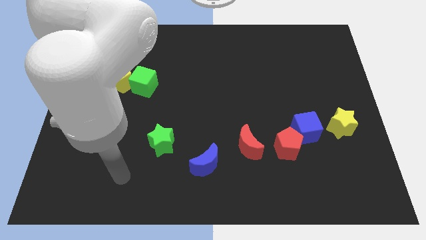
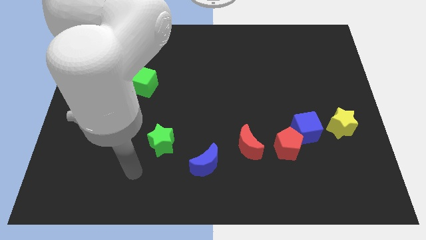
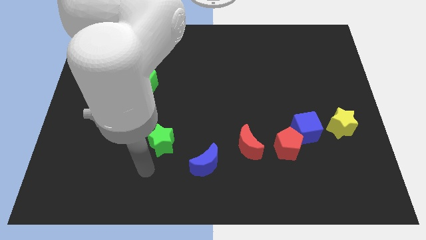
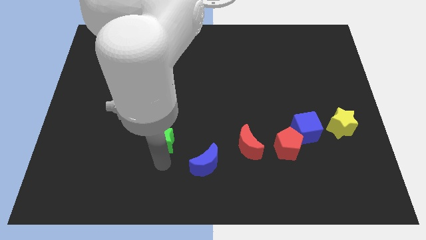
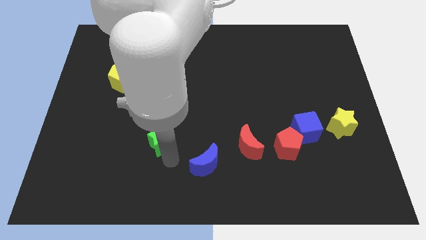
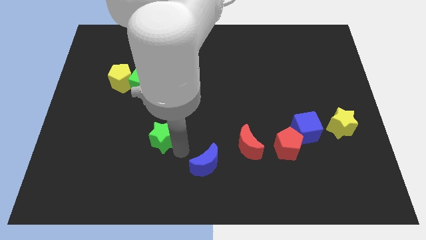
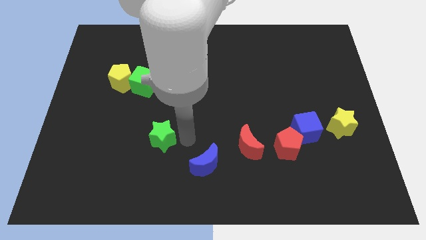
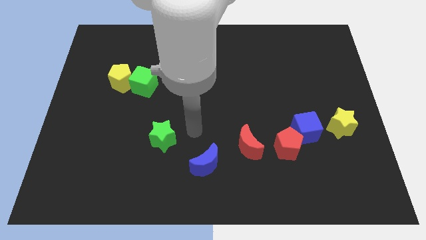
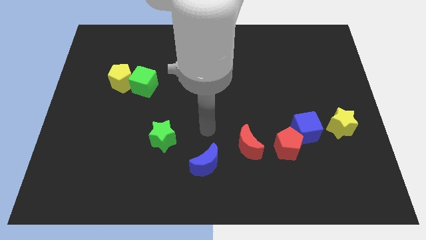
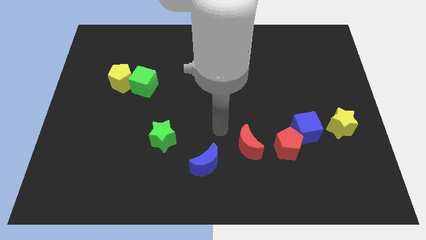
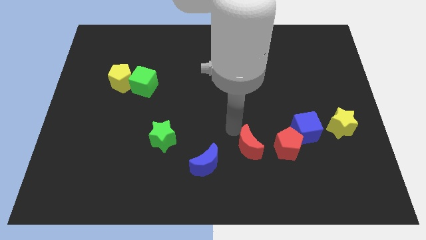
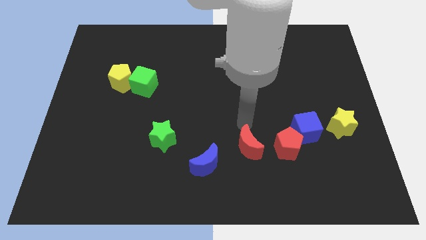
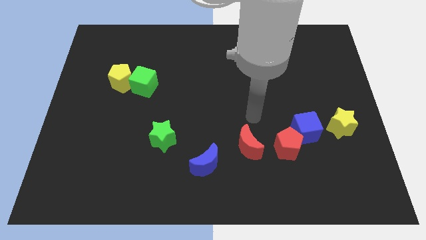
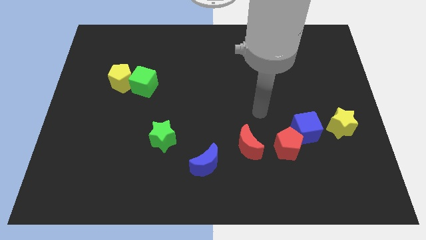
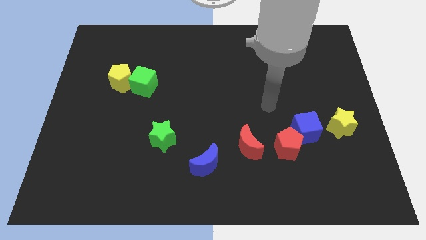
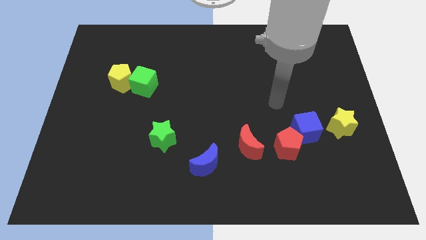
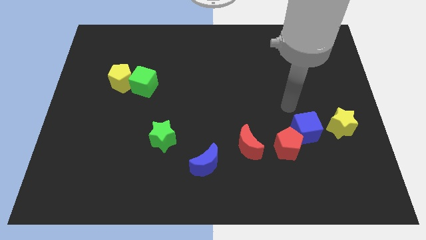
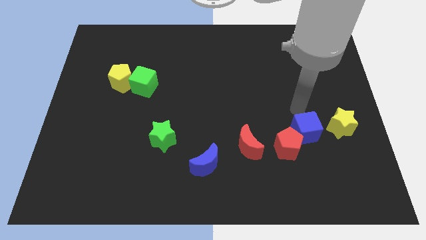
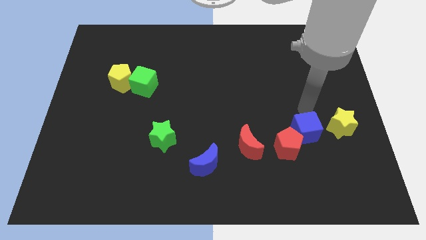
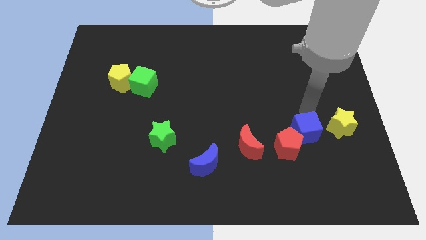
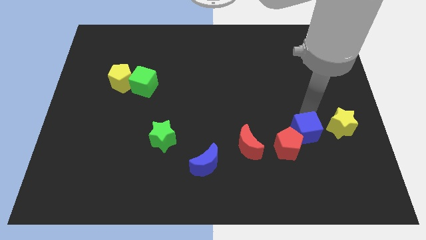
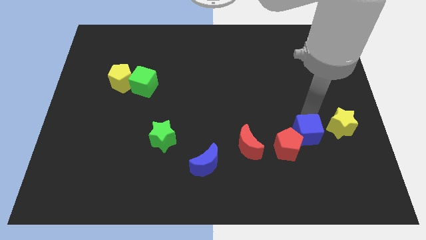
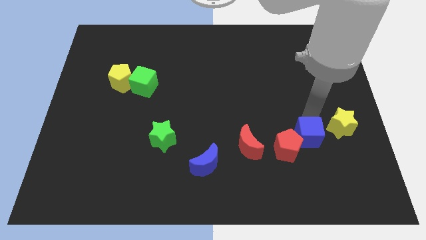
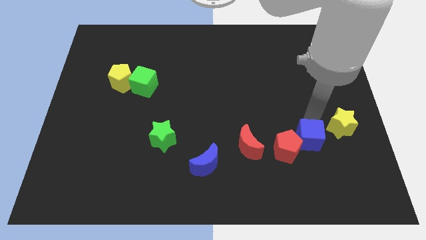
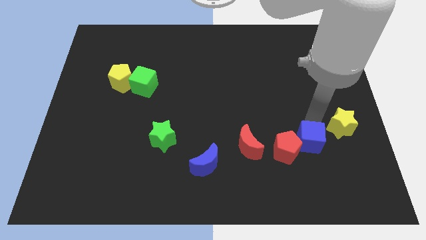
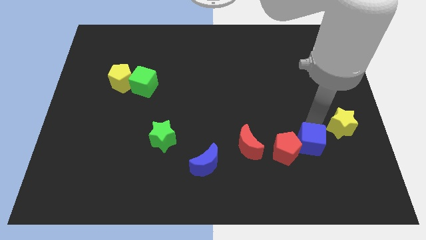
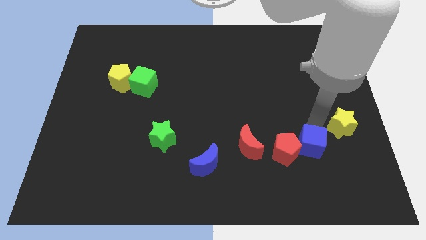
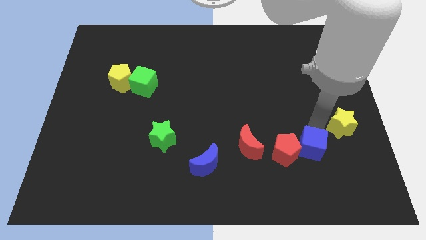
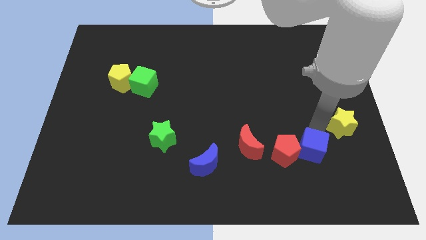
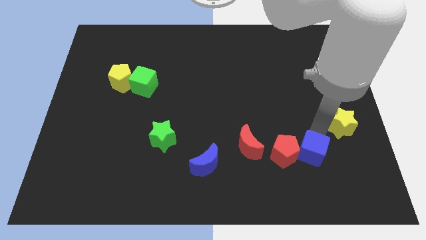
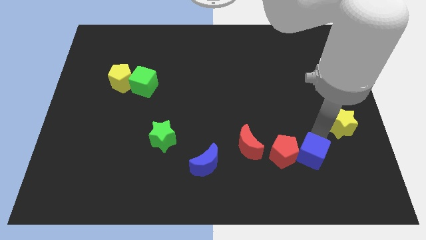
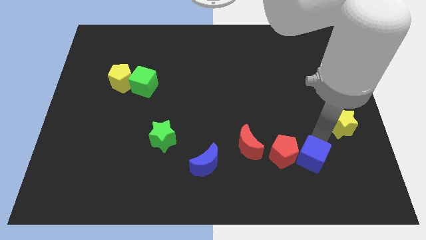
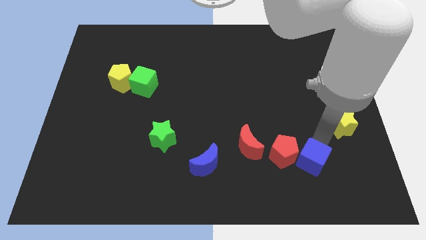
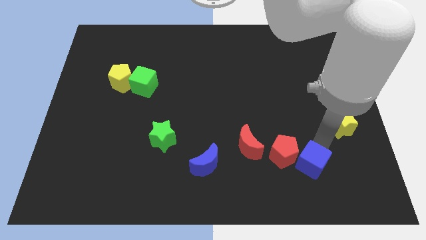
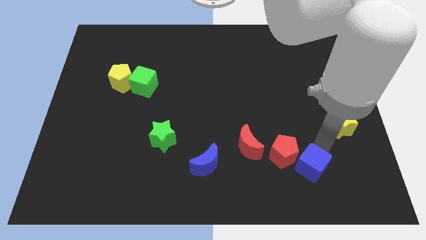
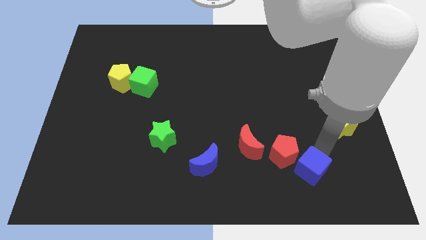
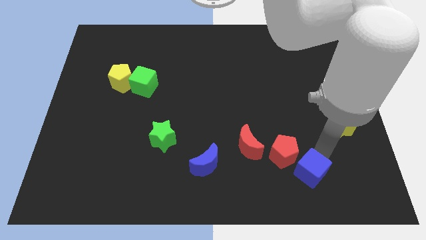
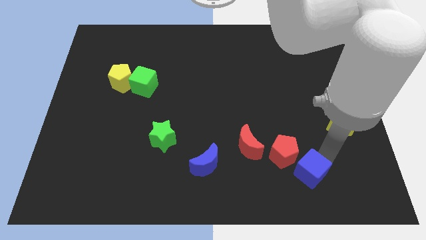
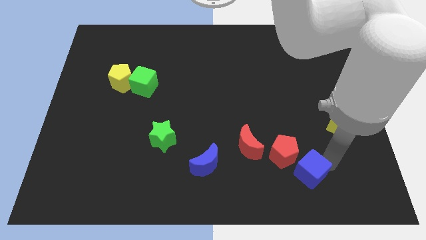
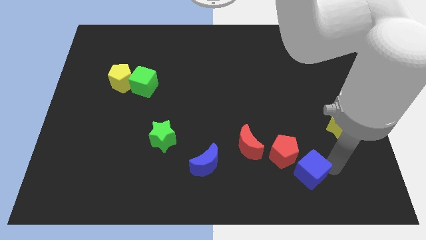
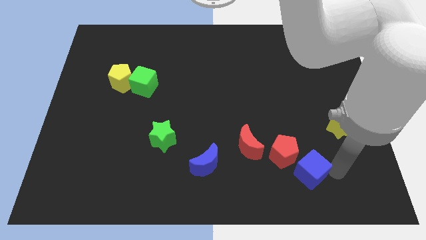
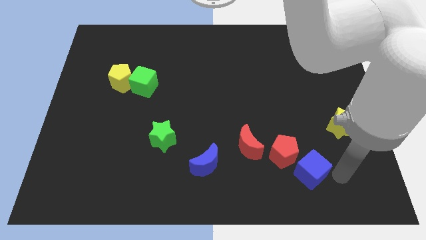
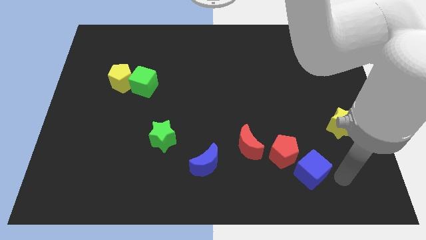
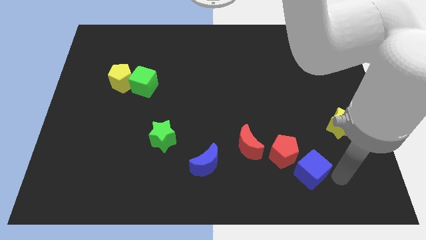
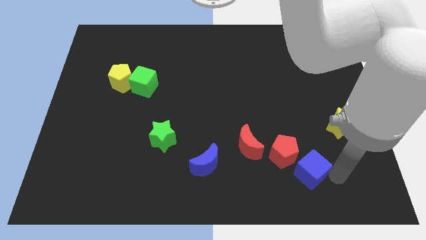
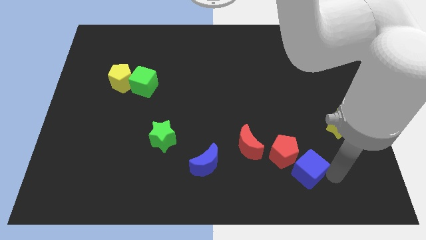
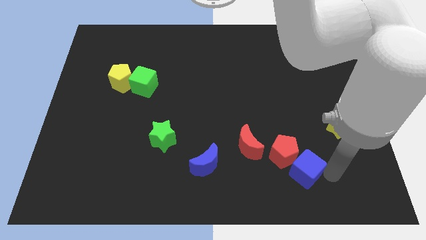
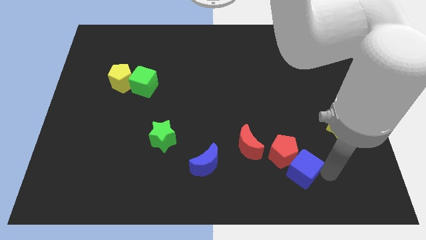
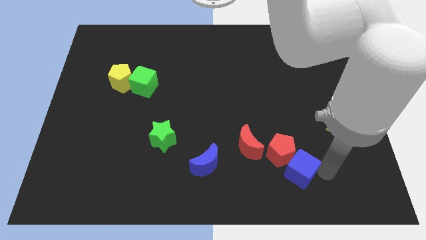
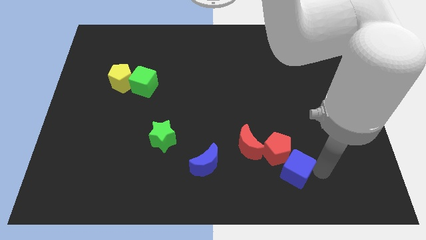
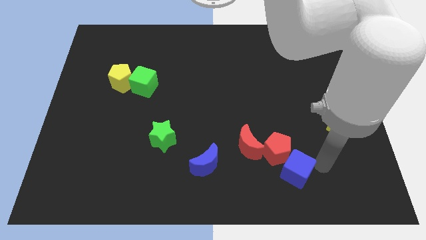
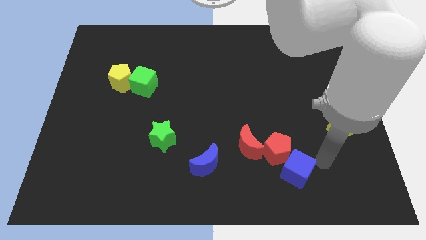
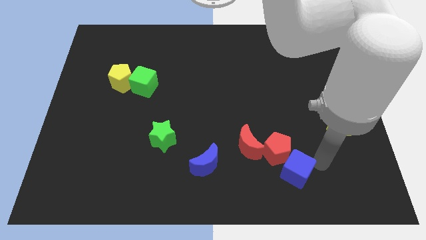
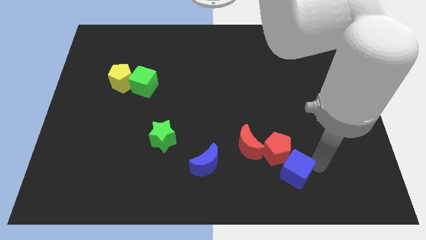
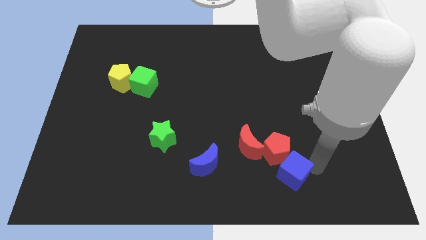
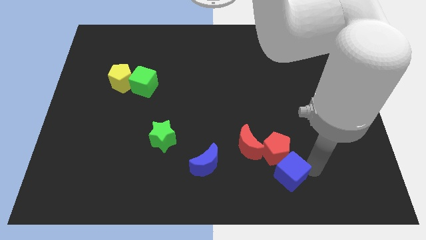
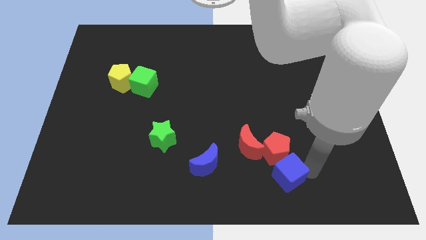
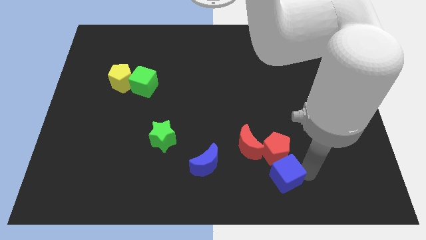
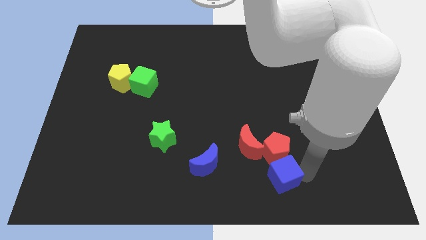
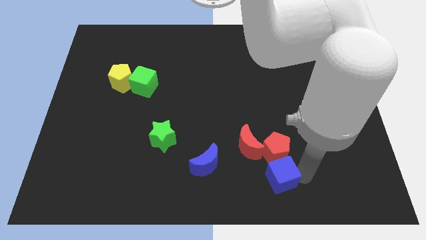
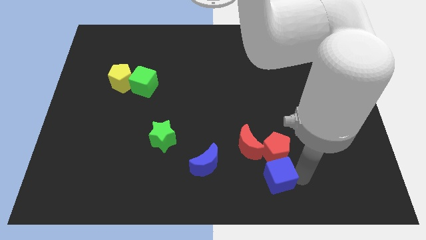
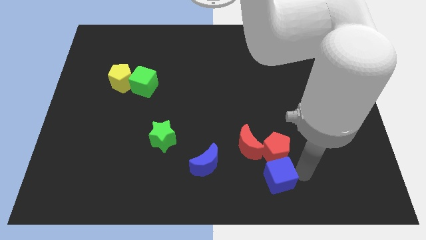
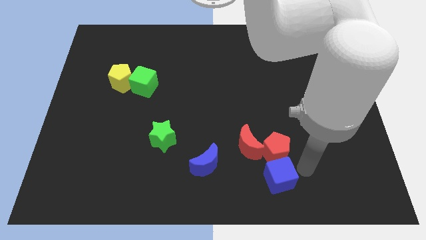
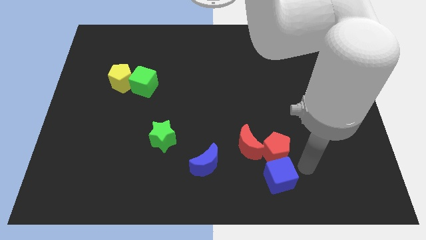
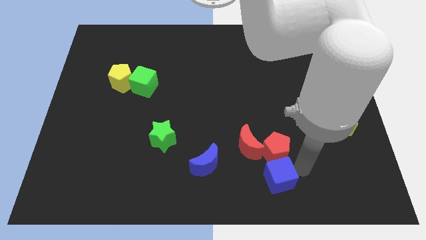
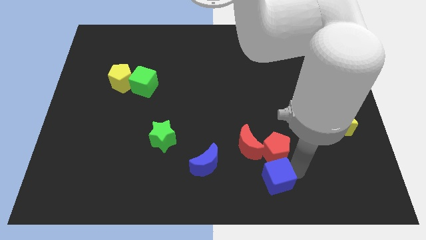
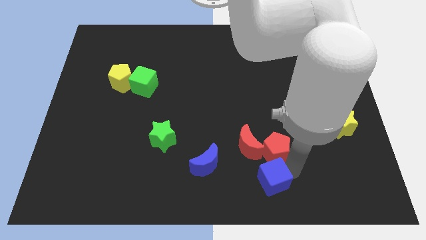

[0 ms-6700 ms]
move the blue cube to the bottom side
